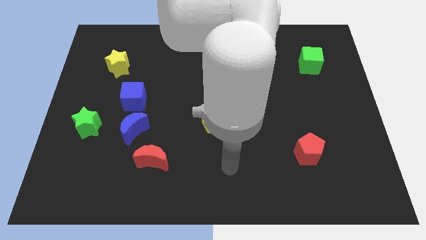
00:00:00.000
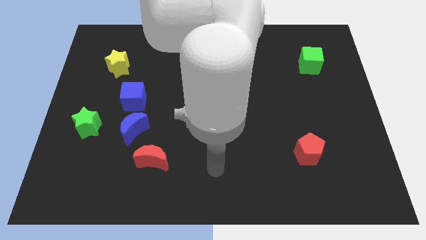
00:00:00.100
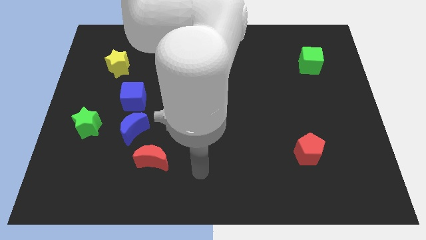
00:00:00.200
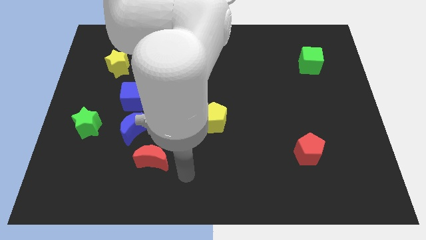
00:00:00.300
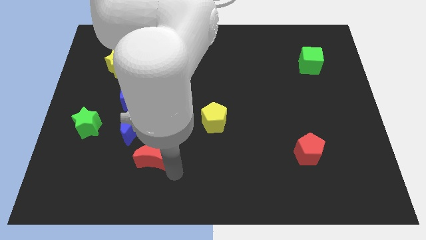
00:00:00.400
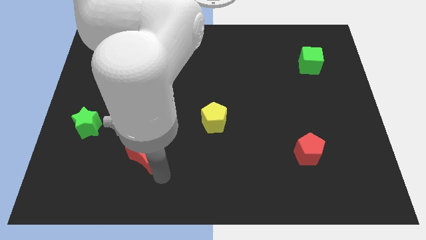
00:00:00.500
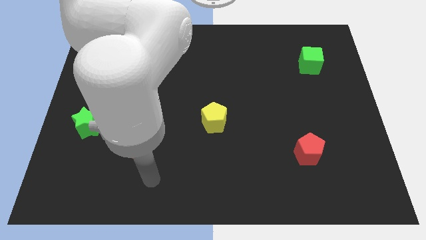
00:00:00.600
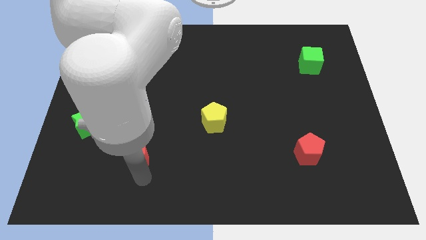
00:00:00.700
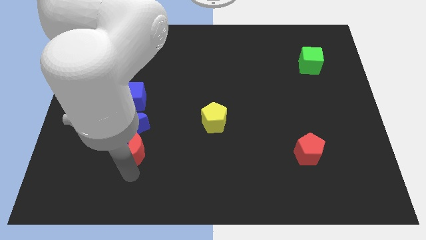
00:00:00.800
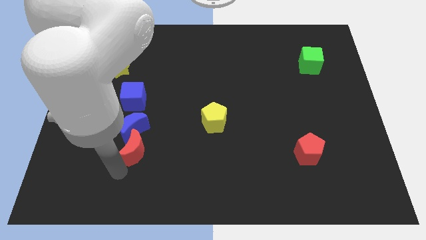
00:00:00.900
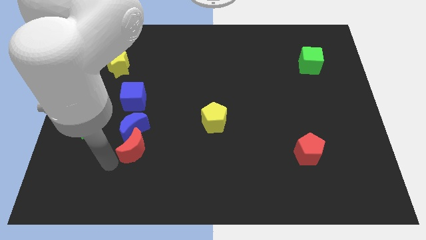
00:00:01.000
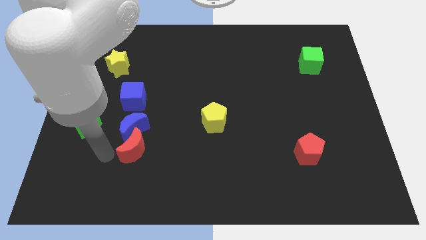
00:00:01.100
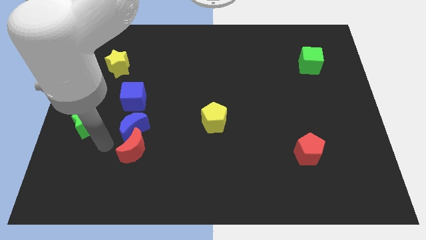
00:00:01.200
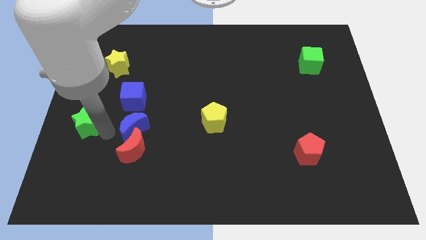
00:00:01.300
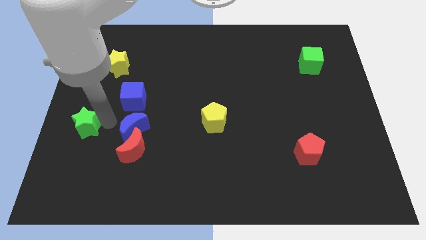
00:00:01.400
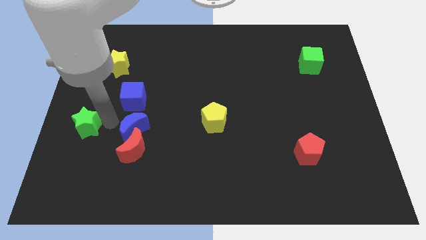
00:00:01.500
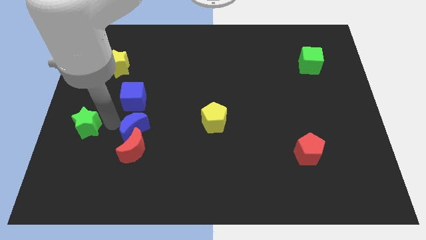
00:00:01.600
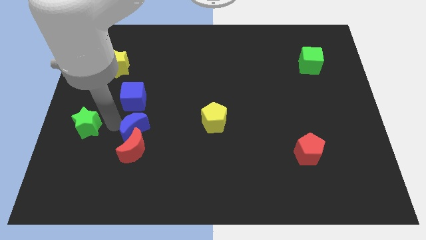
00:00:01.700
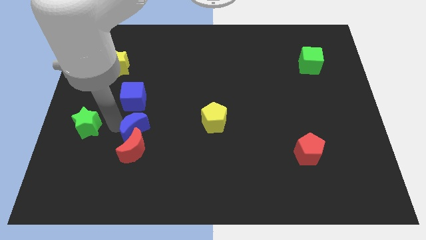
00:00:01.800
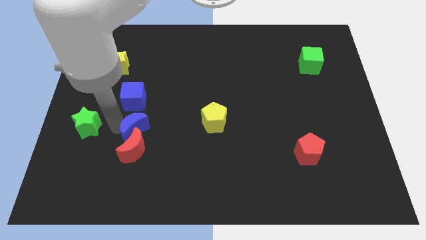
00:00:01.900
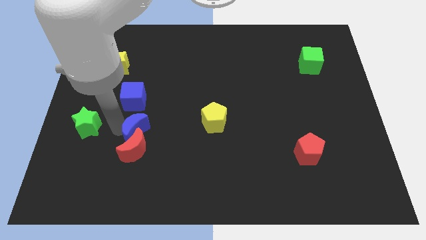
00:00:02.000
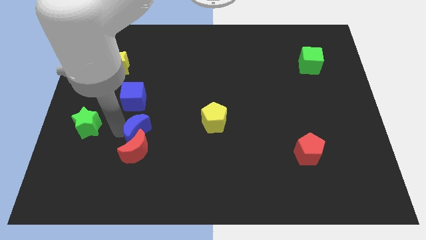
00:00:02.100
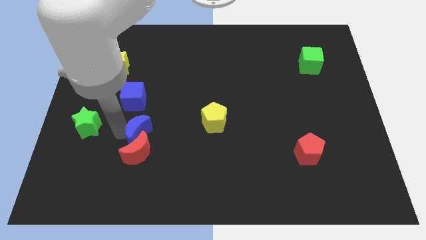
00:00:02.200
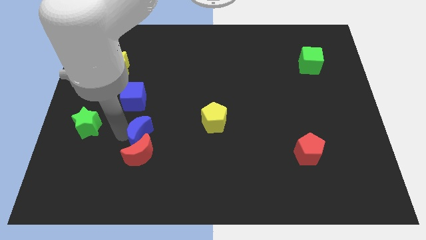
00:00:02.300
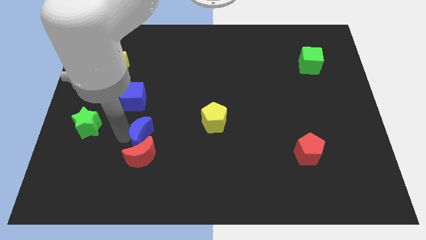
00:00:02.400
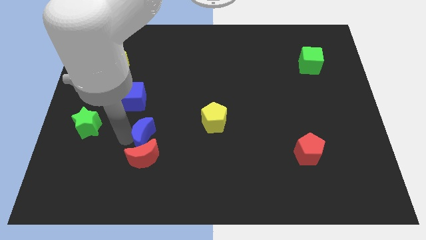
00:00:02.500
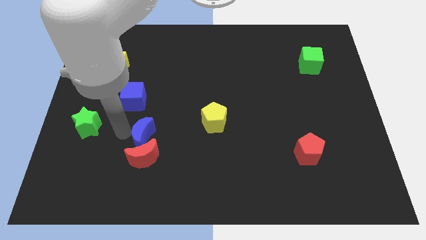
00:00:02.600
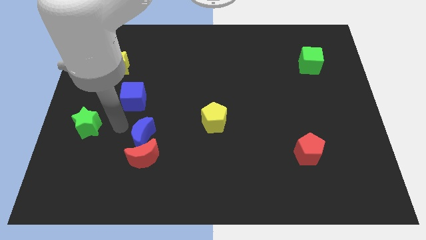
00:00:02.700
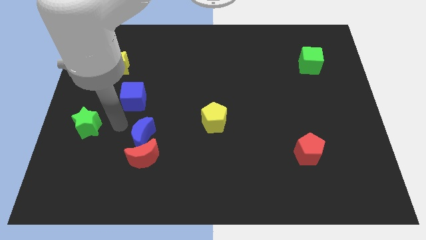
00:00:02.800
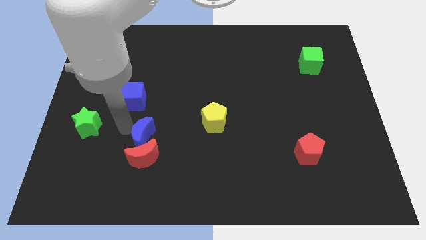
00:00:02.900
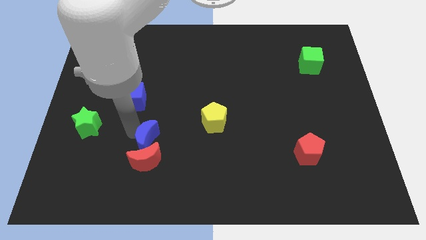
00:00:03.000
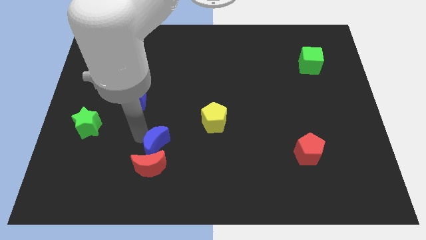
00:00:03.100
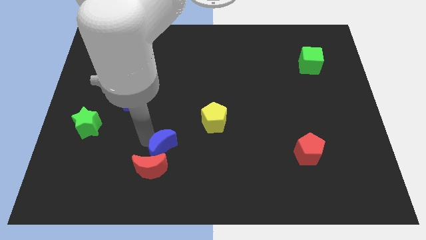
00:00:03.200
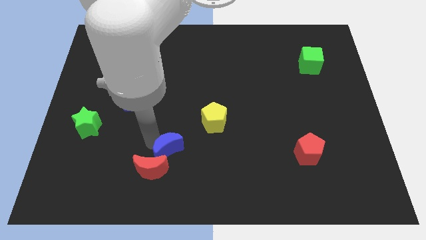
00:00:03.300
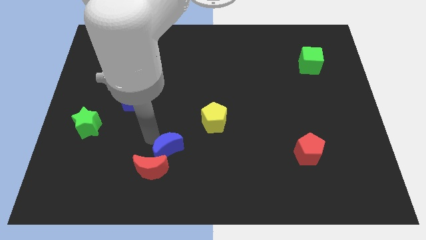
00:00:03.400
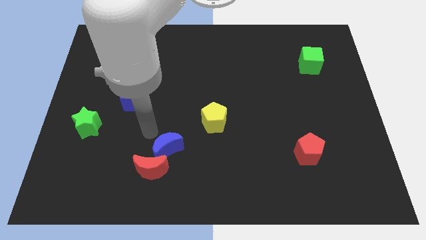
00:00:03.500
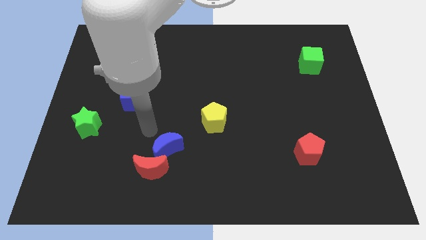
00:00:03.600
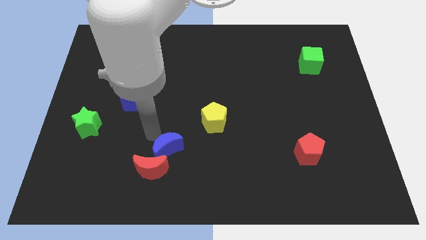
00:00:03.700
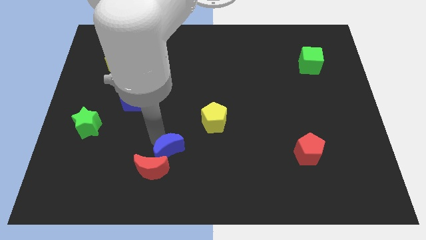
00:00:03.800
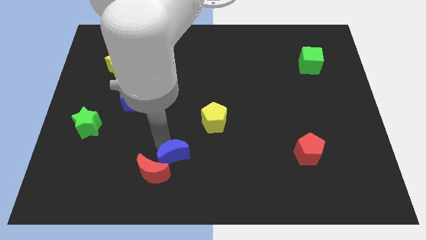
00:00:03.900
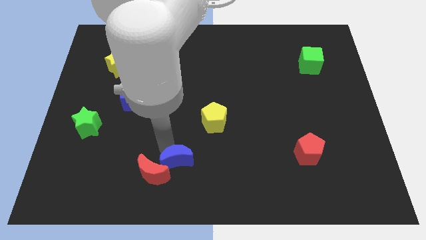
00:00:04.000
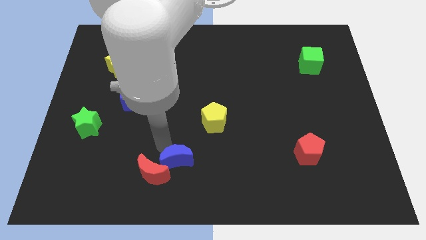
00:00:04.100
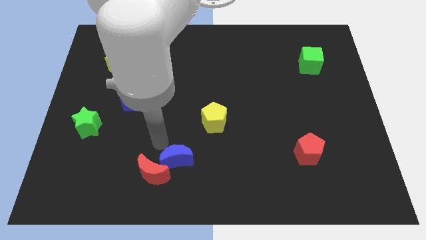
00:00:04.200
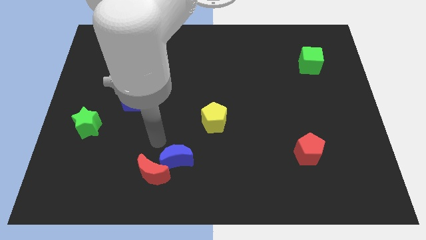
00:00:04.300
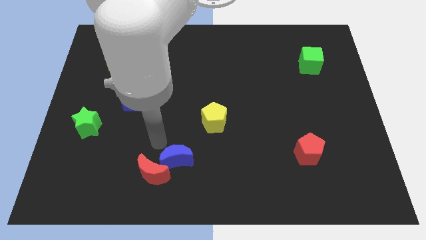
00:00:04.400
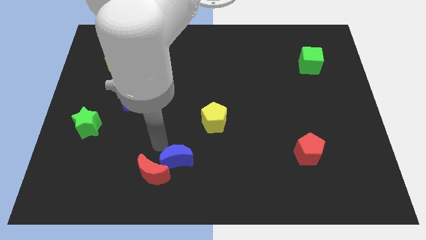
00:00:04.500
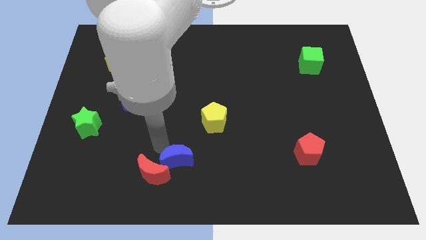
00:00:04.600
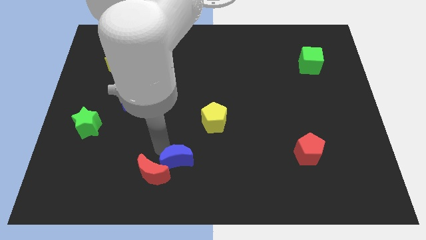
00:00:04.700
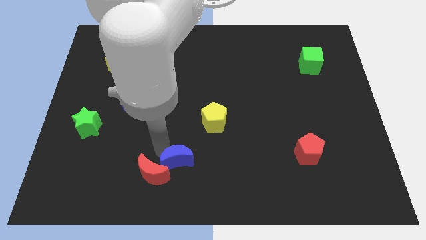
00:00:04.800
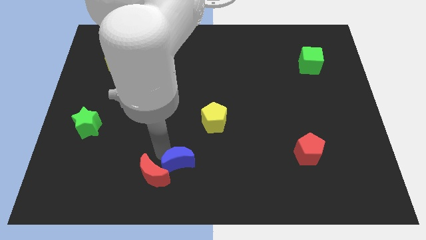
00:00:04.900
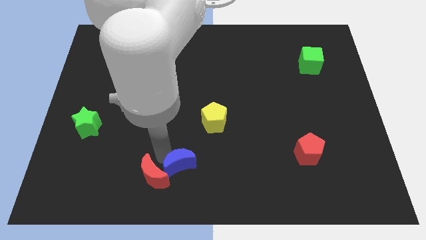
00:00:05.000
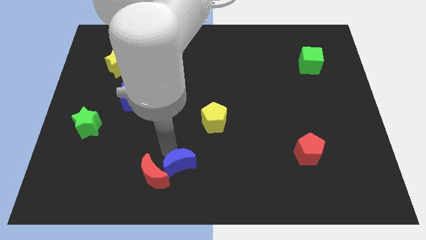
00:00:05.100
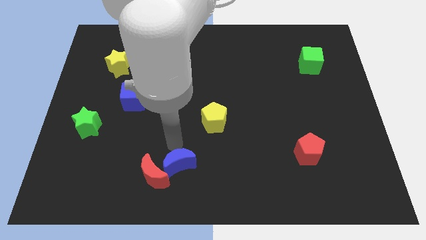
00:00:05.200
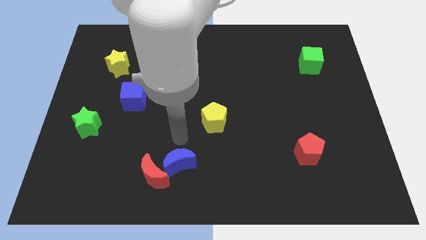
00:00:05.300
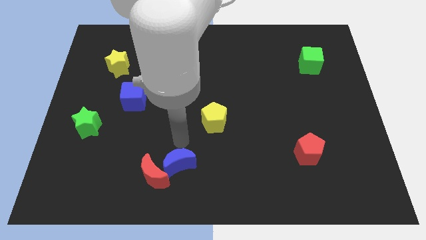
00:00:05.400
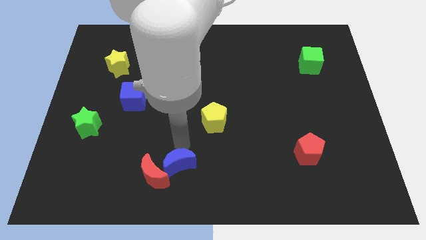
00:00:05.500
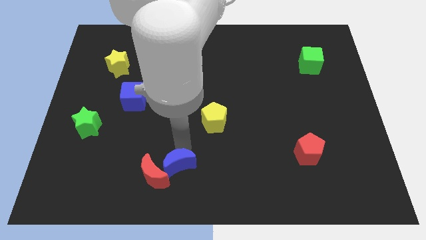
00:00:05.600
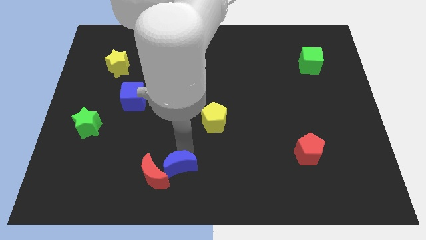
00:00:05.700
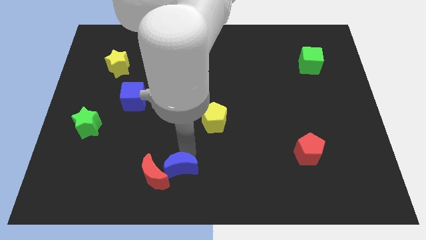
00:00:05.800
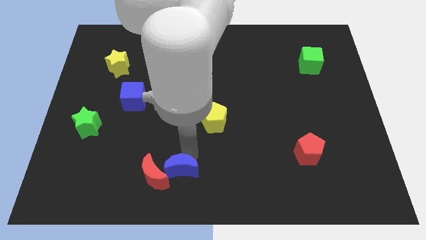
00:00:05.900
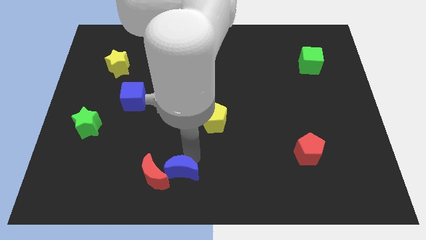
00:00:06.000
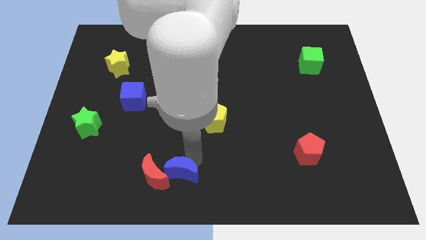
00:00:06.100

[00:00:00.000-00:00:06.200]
push the blue moon to the bottom right side of the red moon

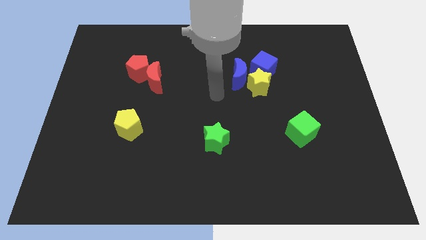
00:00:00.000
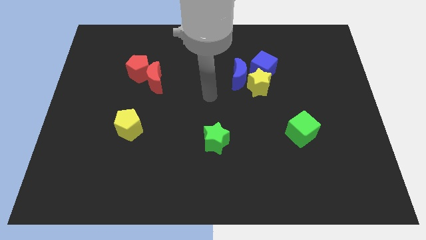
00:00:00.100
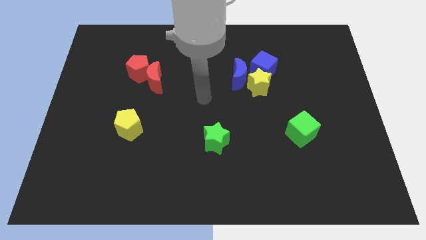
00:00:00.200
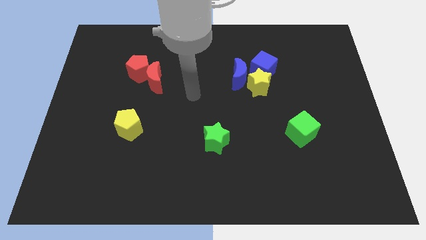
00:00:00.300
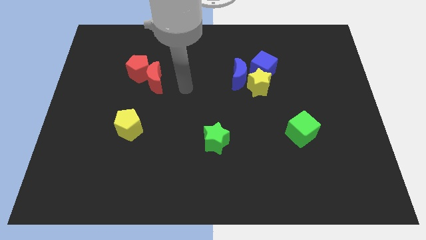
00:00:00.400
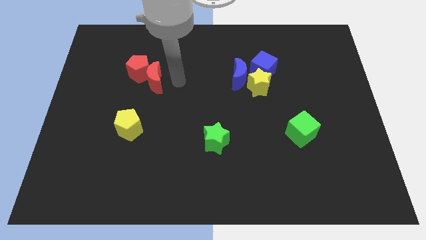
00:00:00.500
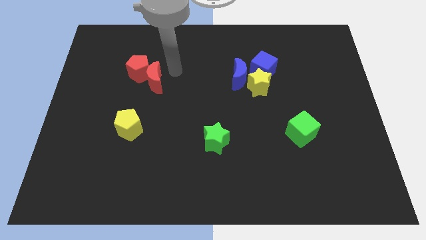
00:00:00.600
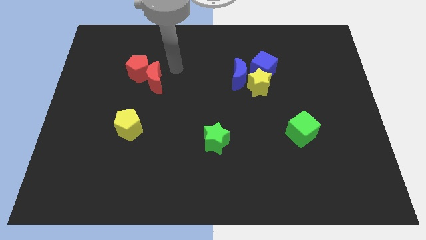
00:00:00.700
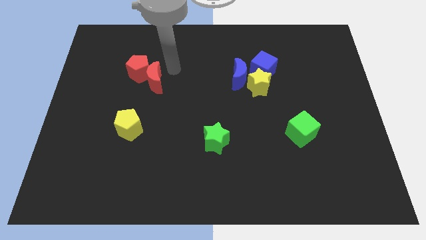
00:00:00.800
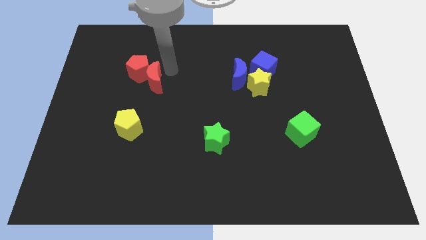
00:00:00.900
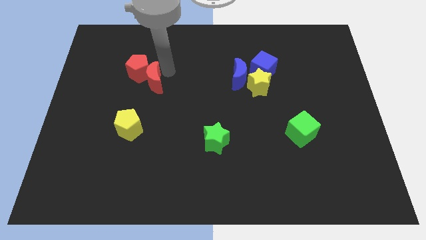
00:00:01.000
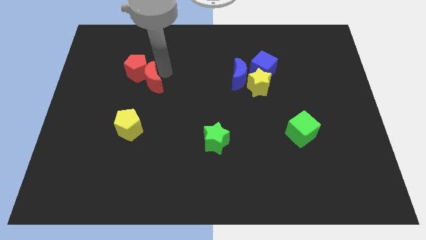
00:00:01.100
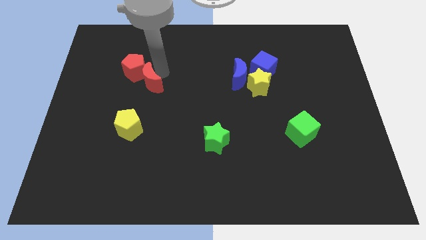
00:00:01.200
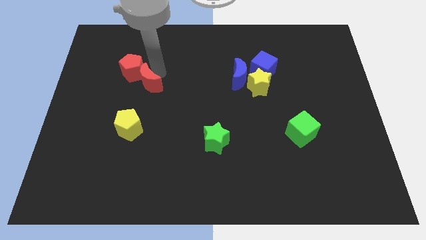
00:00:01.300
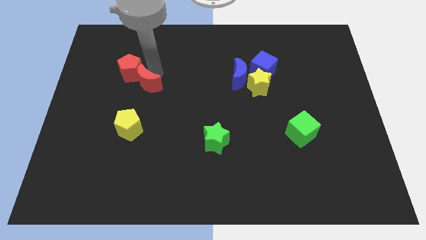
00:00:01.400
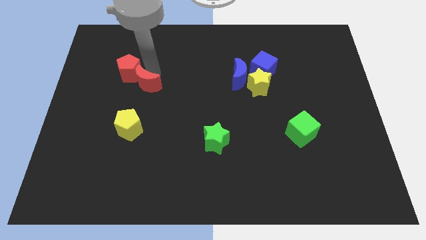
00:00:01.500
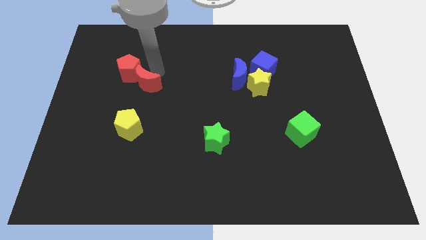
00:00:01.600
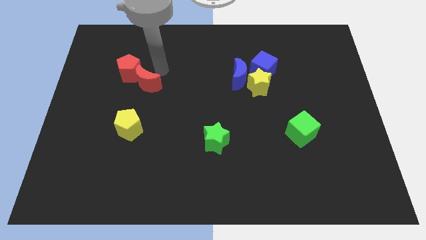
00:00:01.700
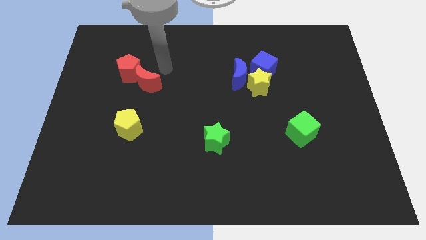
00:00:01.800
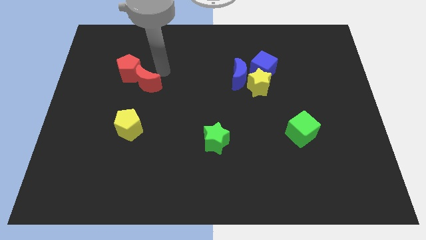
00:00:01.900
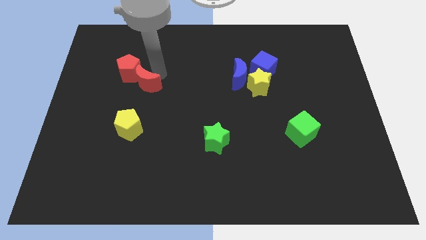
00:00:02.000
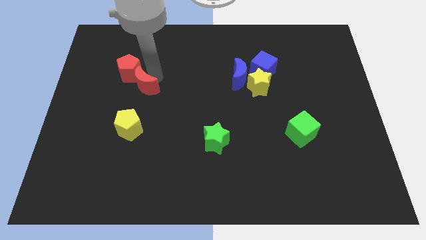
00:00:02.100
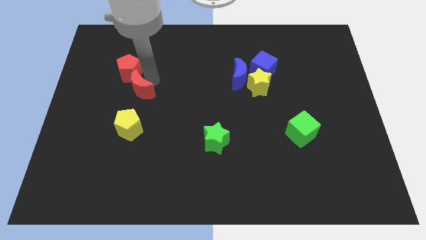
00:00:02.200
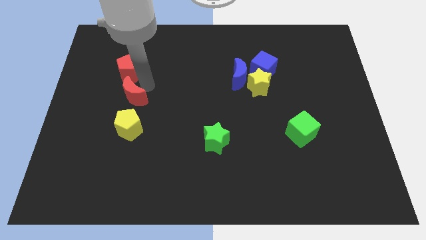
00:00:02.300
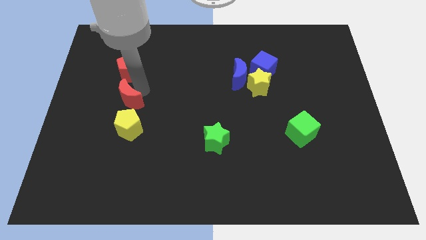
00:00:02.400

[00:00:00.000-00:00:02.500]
move the red moon to the top left of the yellow pentagon
